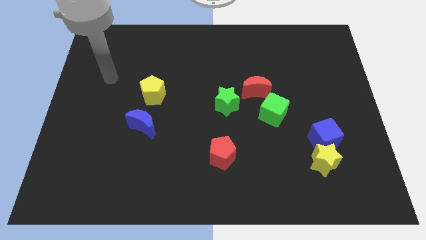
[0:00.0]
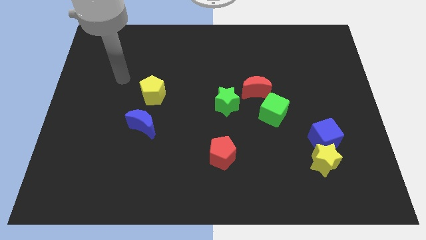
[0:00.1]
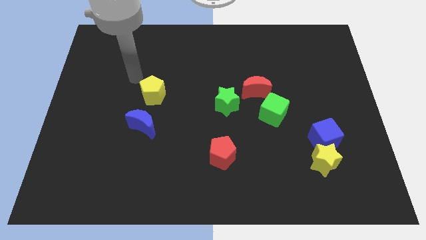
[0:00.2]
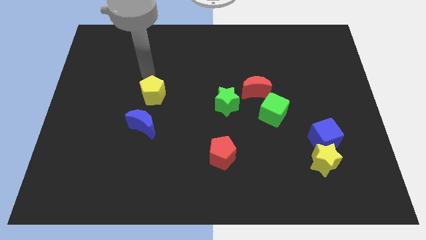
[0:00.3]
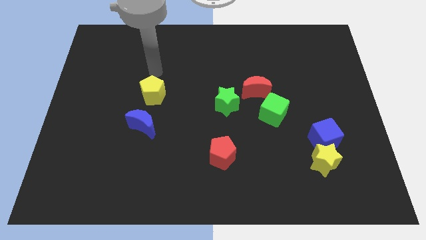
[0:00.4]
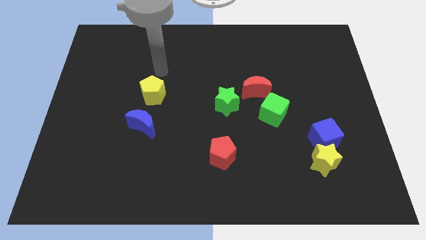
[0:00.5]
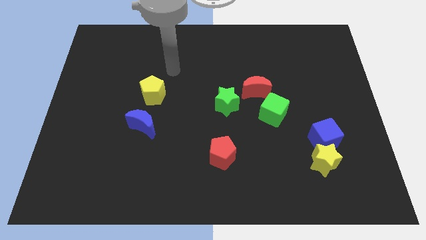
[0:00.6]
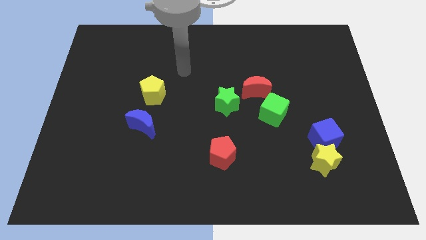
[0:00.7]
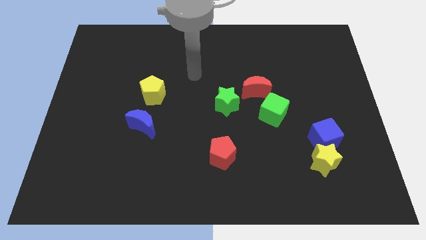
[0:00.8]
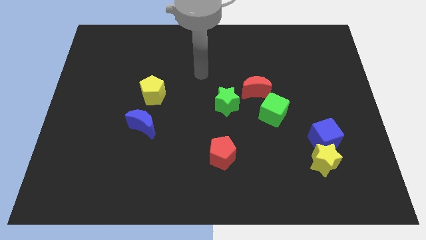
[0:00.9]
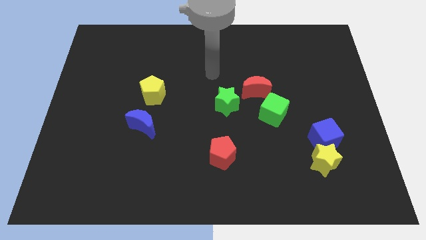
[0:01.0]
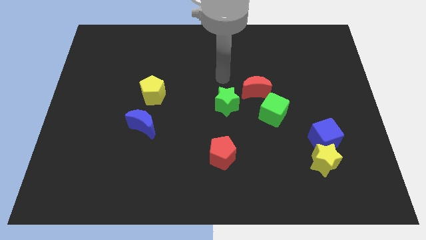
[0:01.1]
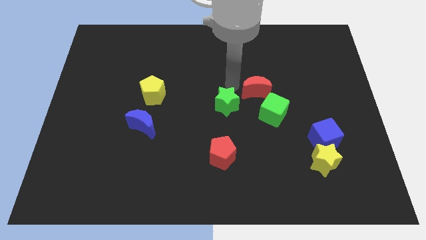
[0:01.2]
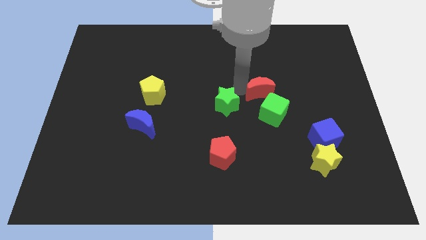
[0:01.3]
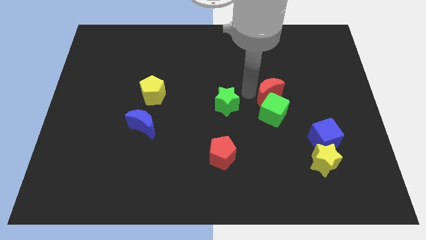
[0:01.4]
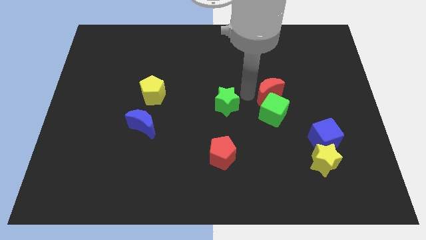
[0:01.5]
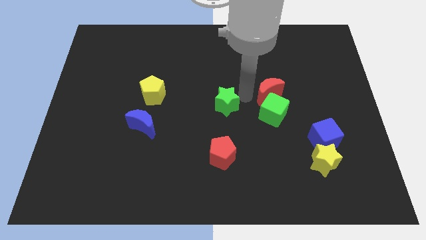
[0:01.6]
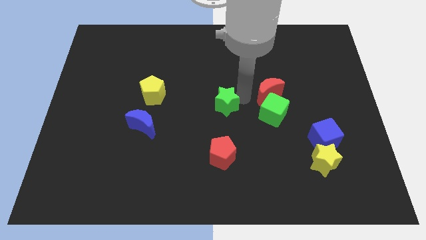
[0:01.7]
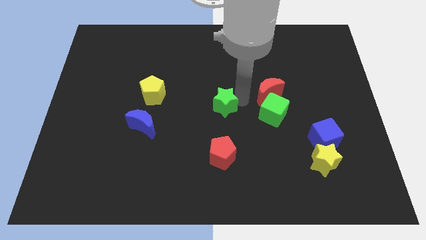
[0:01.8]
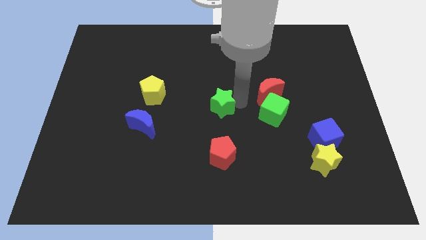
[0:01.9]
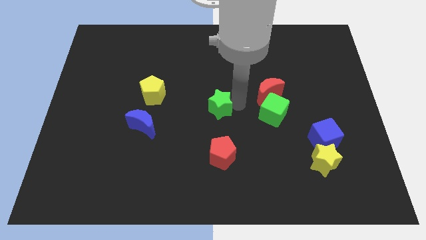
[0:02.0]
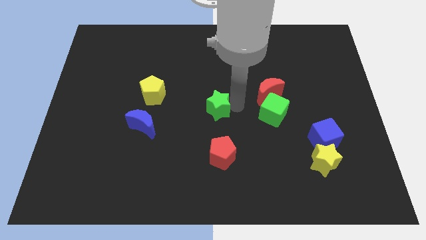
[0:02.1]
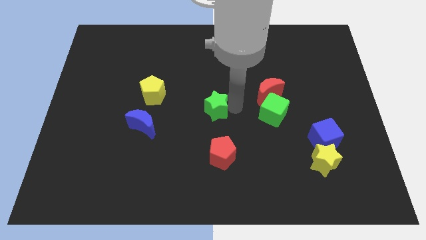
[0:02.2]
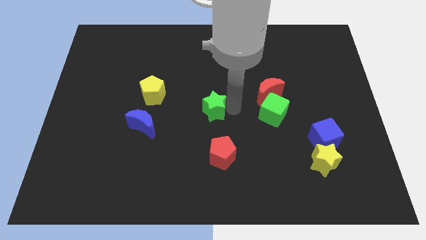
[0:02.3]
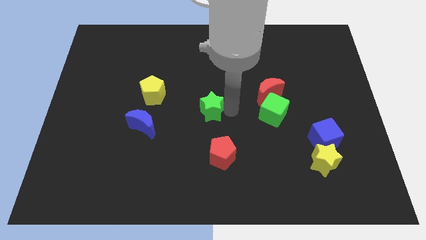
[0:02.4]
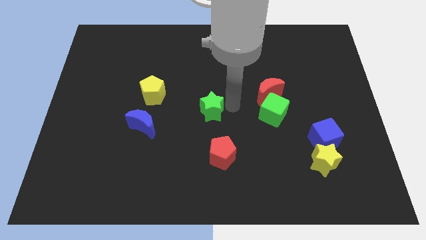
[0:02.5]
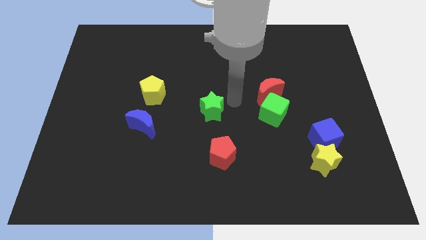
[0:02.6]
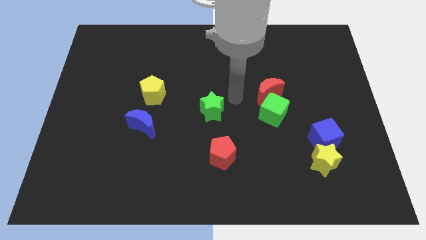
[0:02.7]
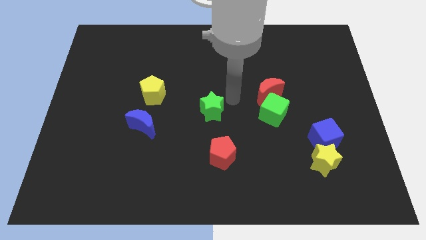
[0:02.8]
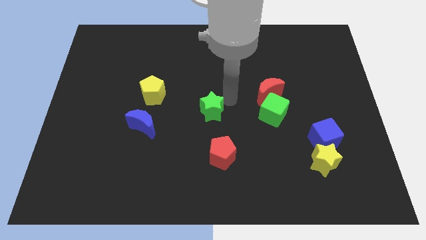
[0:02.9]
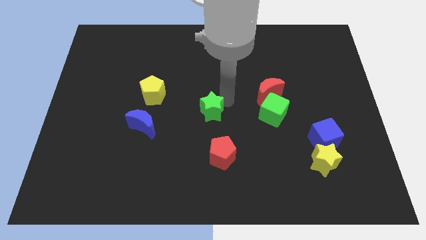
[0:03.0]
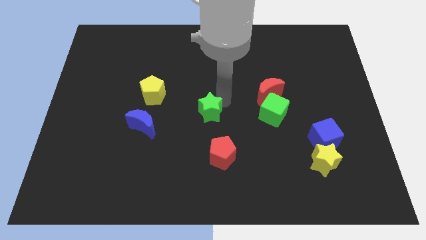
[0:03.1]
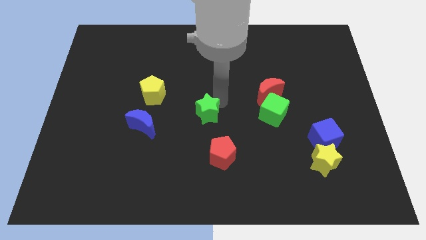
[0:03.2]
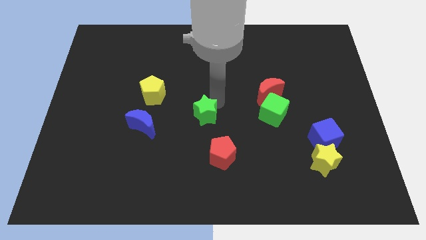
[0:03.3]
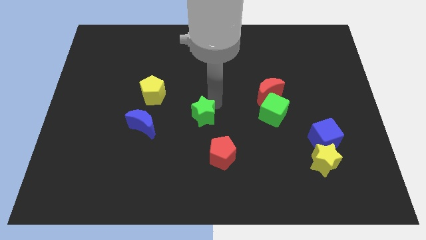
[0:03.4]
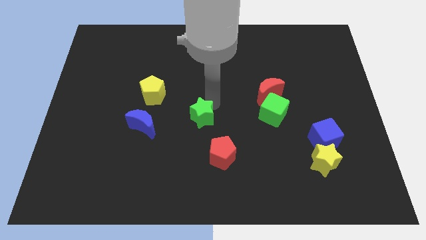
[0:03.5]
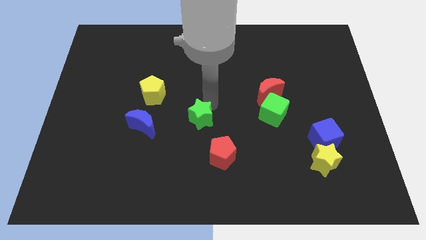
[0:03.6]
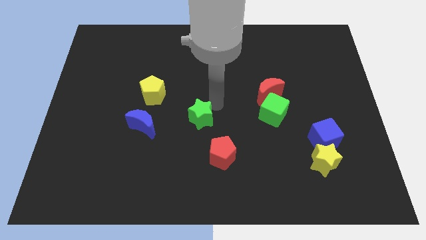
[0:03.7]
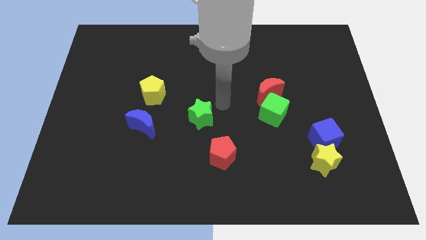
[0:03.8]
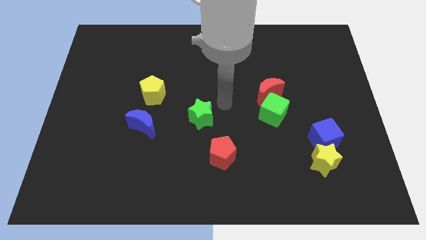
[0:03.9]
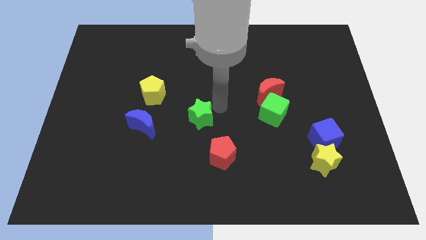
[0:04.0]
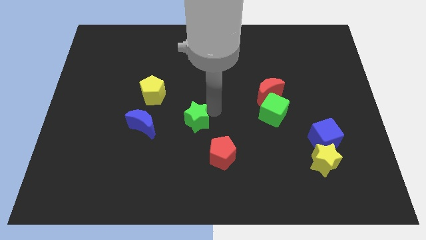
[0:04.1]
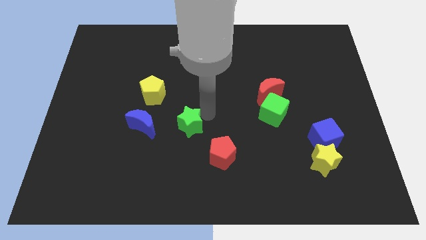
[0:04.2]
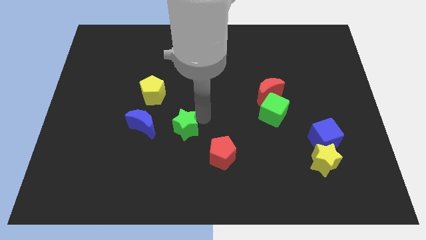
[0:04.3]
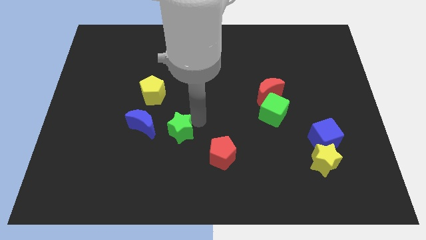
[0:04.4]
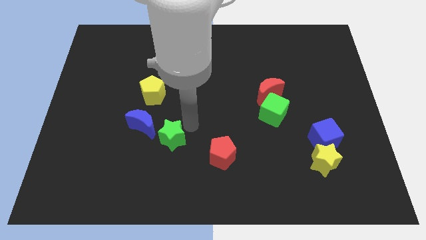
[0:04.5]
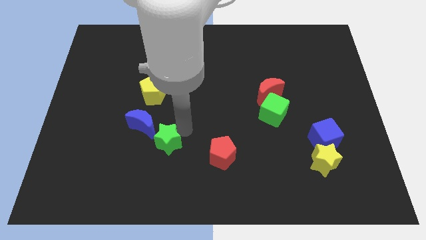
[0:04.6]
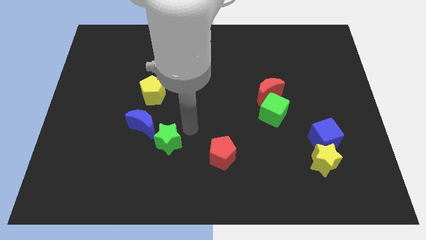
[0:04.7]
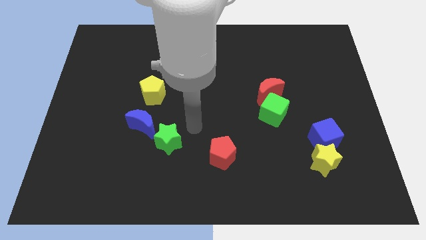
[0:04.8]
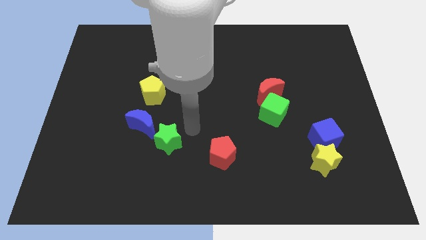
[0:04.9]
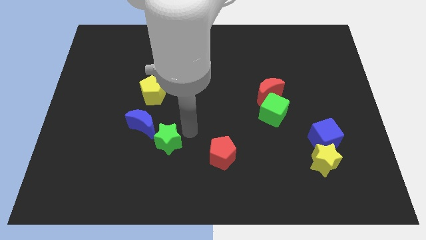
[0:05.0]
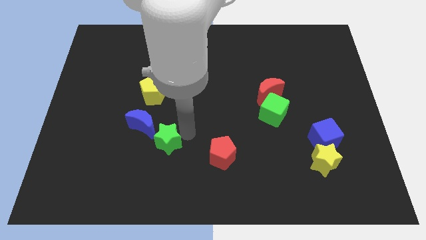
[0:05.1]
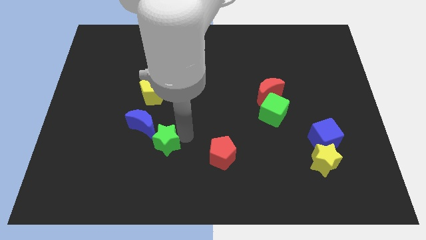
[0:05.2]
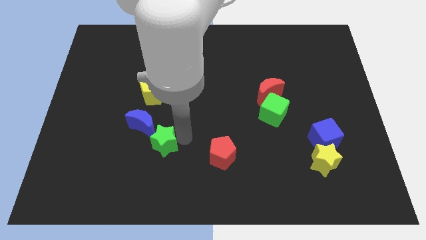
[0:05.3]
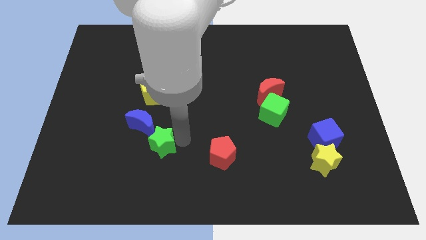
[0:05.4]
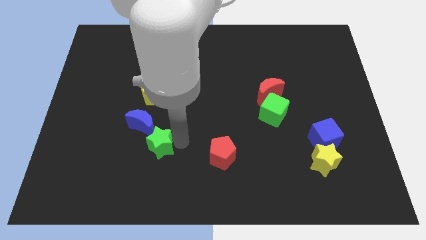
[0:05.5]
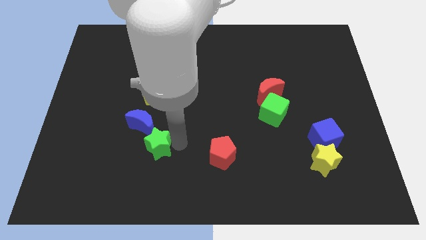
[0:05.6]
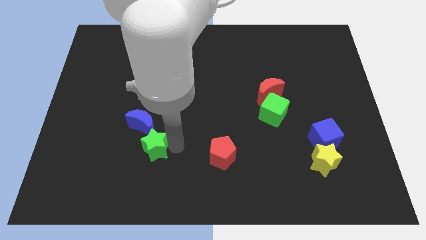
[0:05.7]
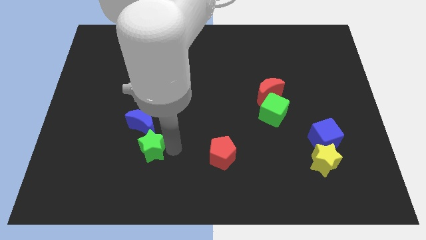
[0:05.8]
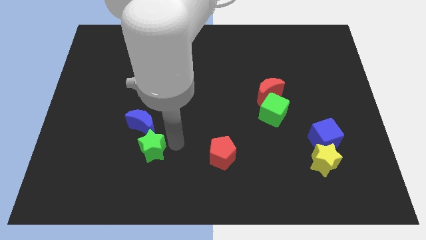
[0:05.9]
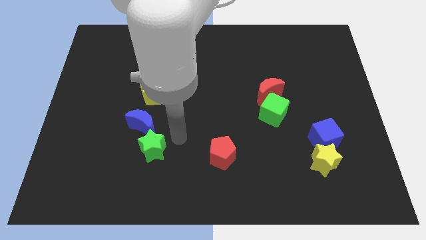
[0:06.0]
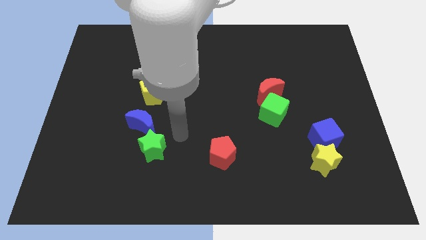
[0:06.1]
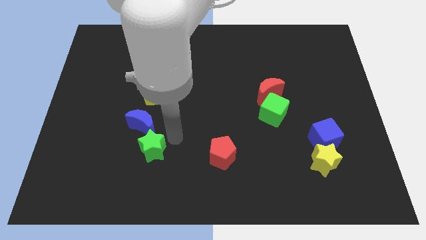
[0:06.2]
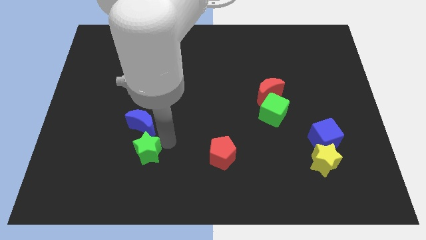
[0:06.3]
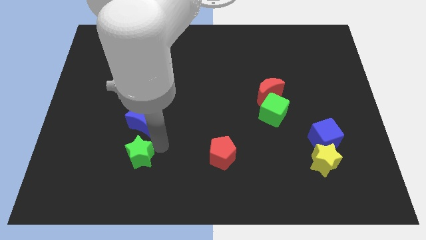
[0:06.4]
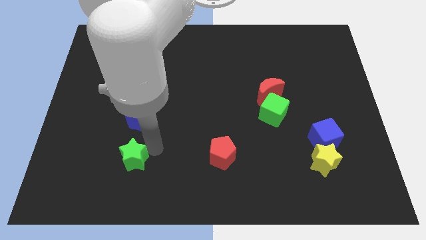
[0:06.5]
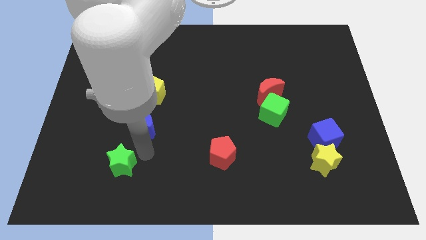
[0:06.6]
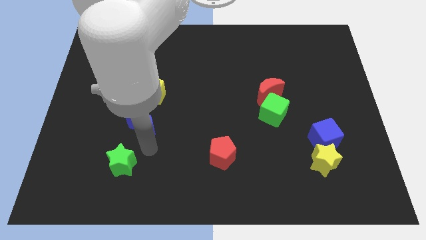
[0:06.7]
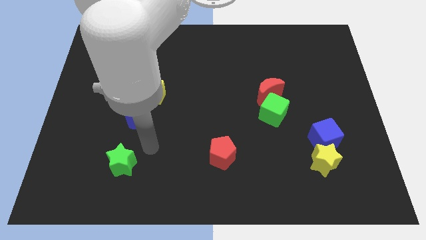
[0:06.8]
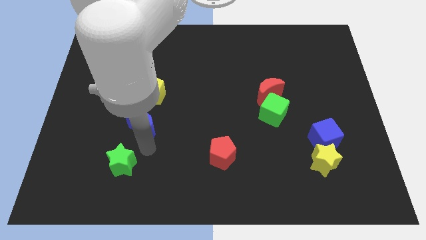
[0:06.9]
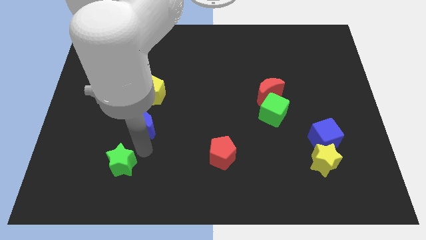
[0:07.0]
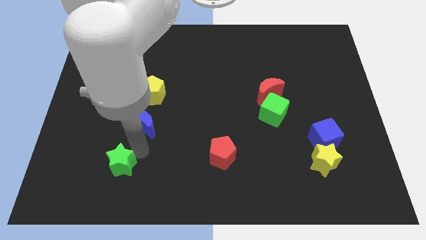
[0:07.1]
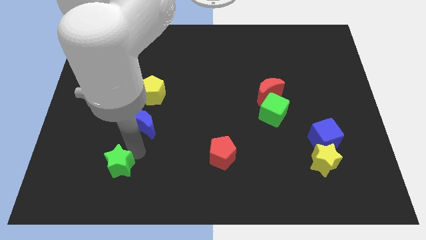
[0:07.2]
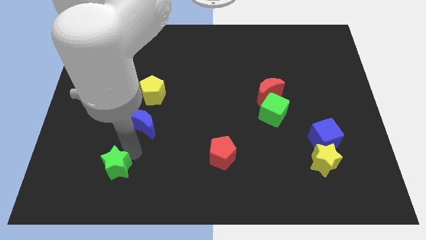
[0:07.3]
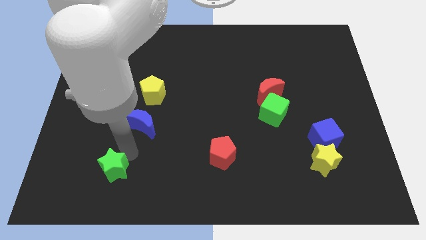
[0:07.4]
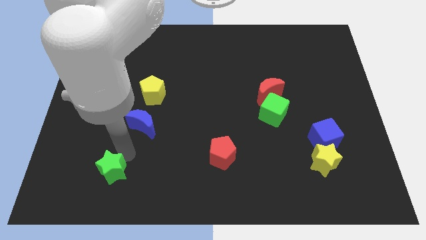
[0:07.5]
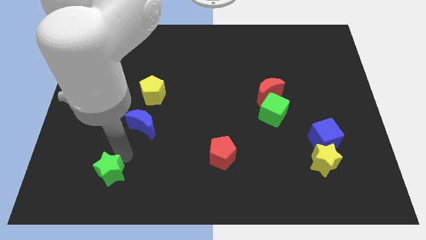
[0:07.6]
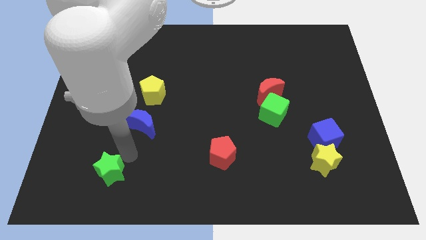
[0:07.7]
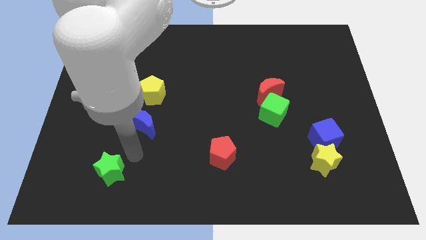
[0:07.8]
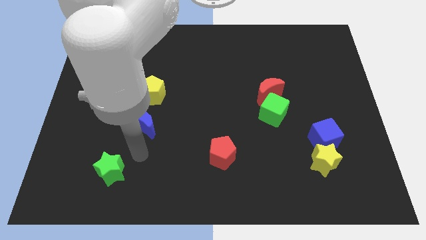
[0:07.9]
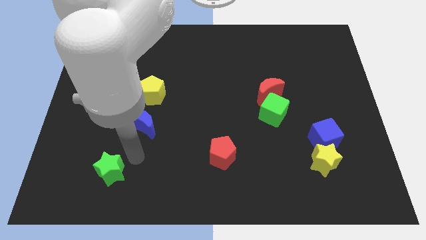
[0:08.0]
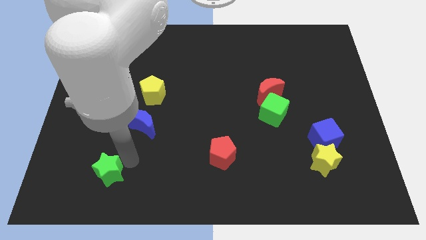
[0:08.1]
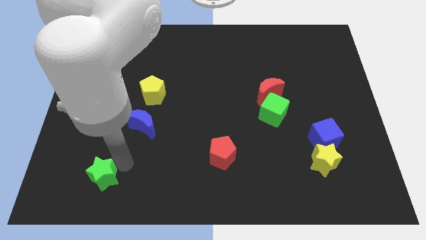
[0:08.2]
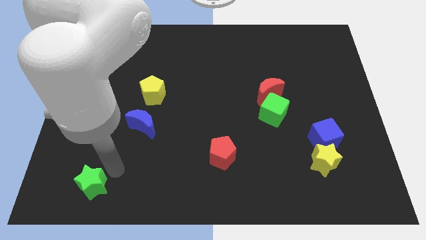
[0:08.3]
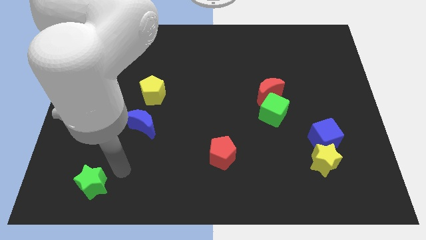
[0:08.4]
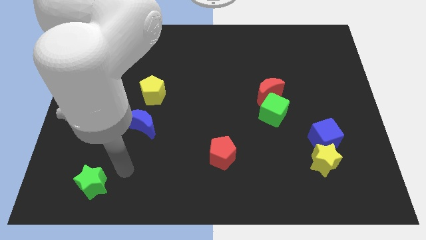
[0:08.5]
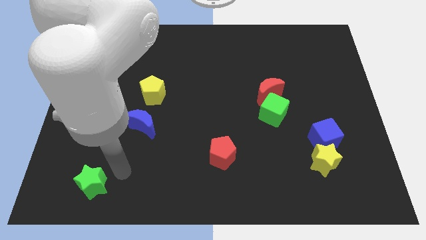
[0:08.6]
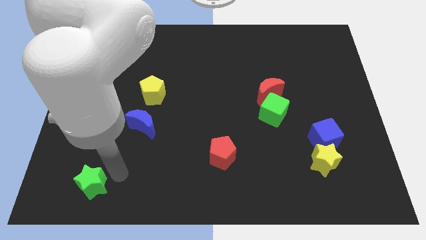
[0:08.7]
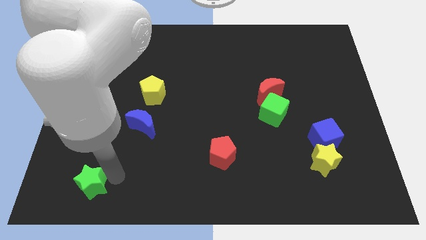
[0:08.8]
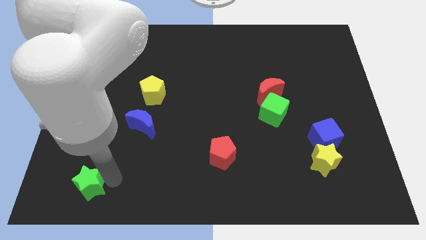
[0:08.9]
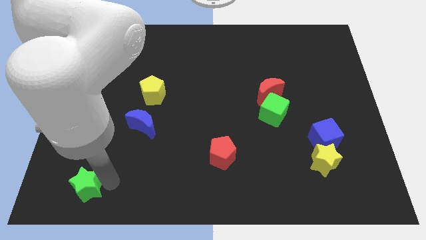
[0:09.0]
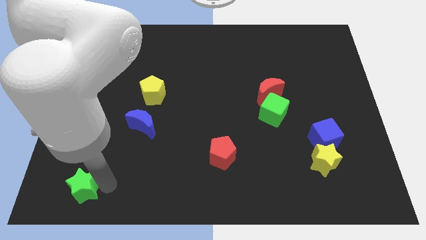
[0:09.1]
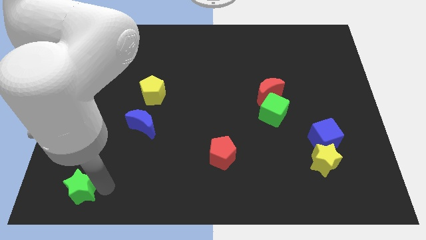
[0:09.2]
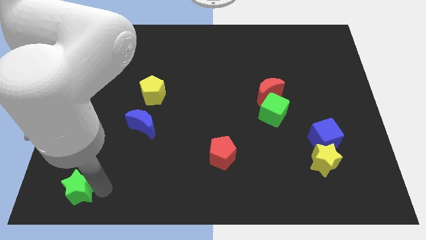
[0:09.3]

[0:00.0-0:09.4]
slide the green star to the bottom left corner
